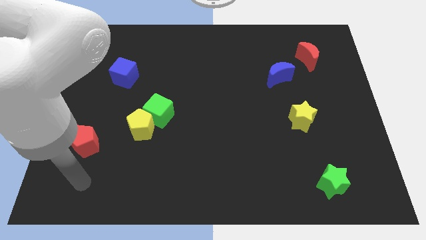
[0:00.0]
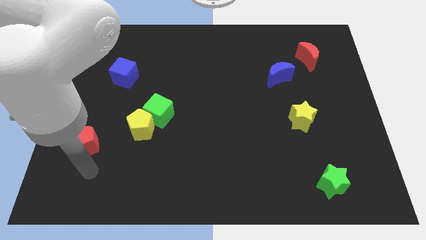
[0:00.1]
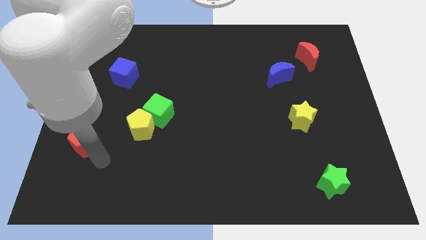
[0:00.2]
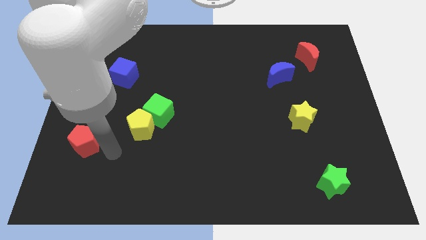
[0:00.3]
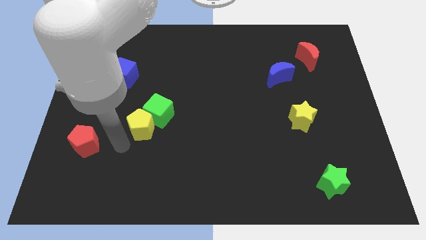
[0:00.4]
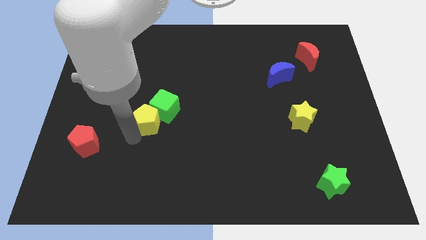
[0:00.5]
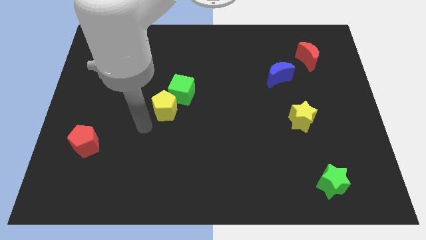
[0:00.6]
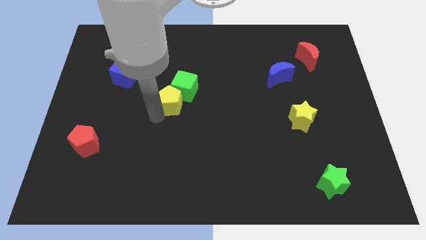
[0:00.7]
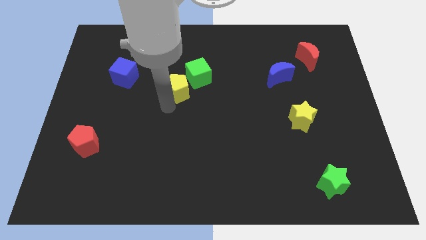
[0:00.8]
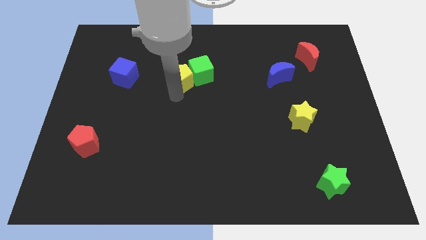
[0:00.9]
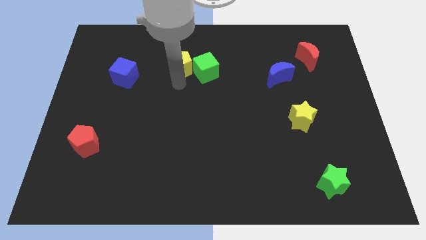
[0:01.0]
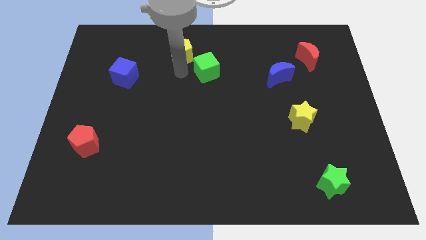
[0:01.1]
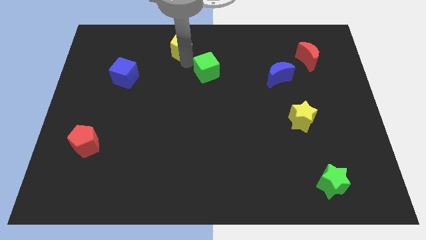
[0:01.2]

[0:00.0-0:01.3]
pull the green cube apart from the yellow pentagon

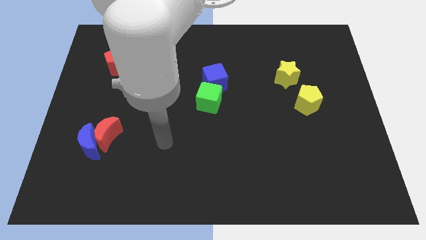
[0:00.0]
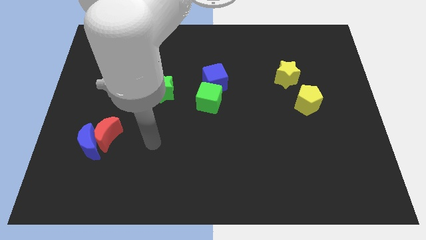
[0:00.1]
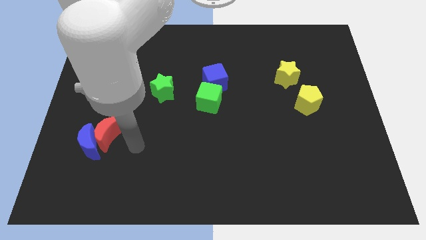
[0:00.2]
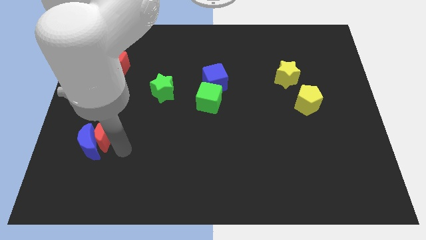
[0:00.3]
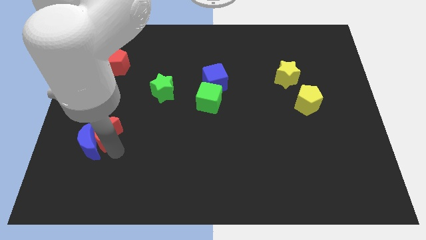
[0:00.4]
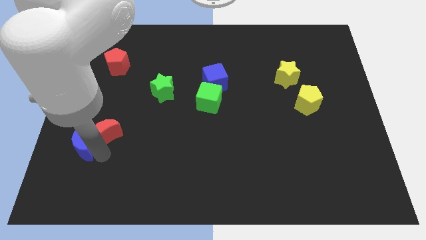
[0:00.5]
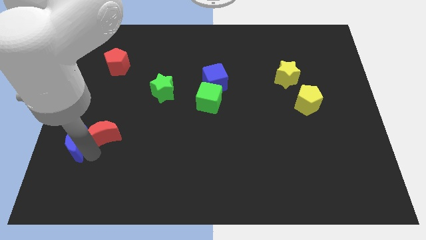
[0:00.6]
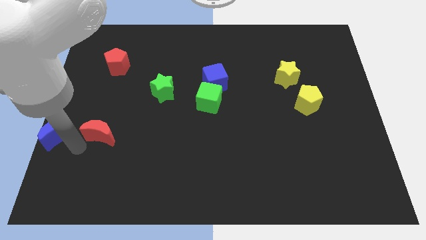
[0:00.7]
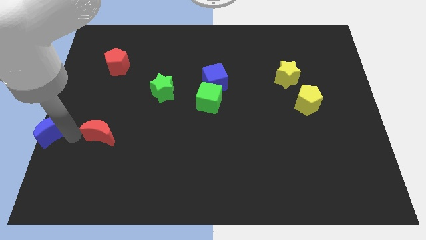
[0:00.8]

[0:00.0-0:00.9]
separate the red moon from the blue moon

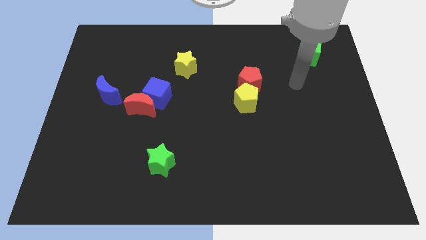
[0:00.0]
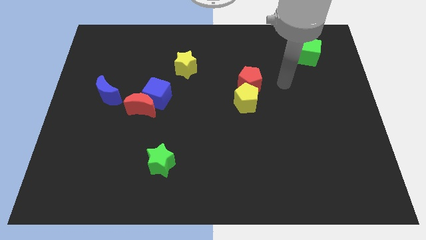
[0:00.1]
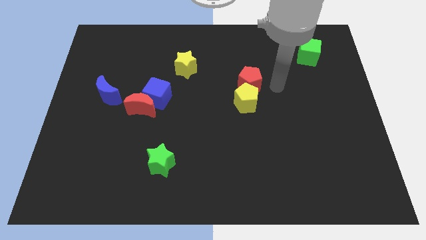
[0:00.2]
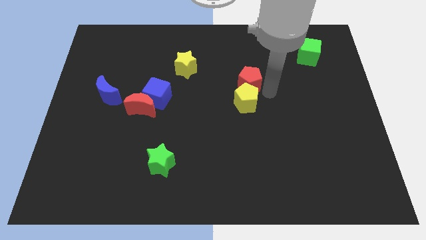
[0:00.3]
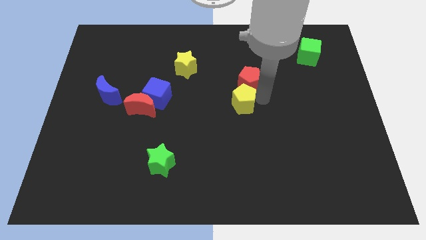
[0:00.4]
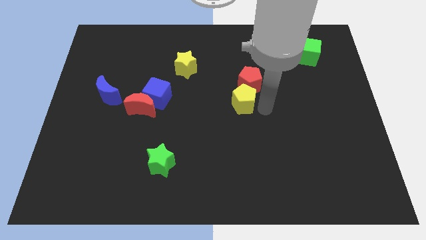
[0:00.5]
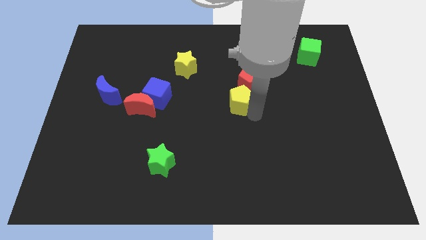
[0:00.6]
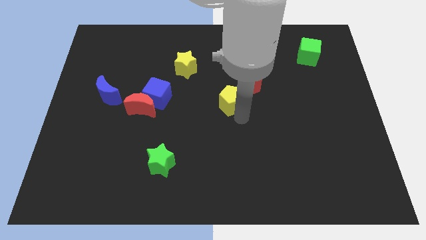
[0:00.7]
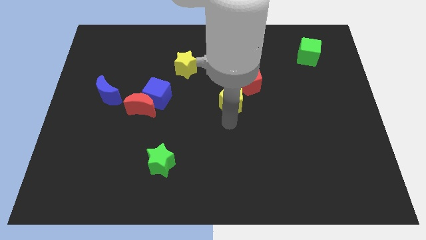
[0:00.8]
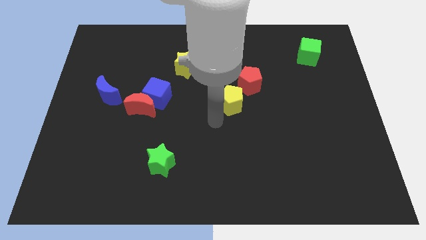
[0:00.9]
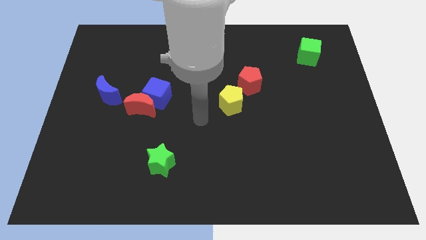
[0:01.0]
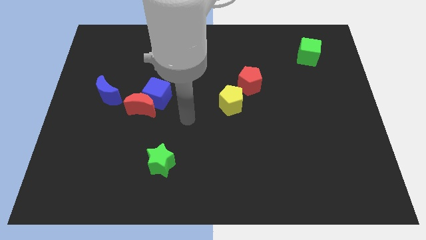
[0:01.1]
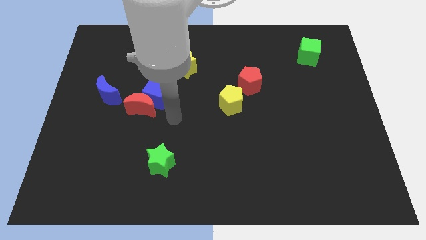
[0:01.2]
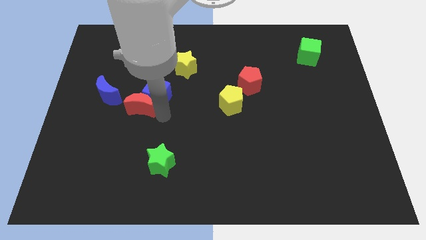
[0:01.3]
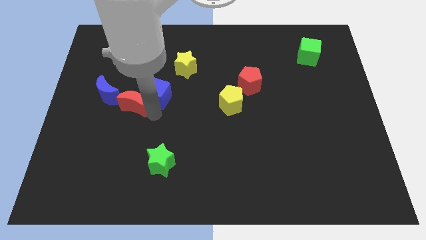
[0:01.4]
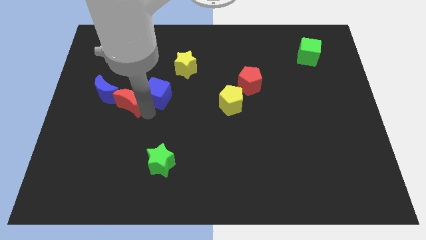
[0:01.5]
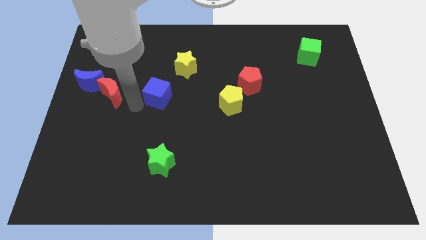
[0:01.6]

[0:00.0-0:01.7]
move the blue cube away from the red moon

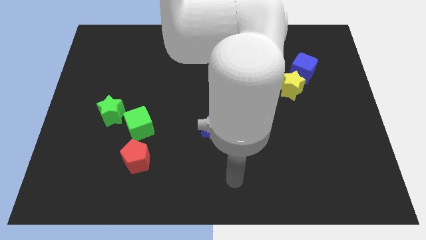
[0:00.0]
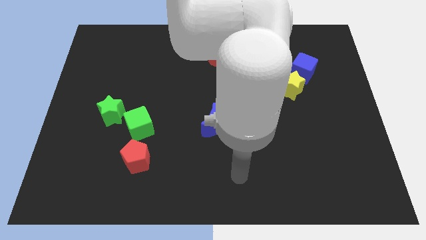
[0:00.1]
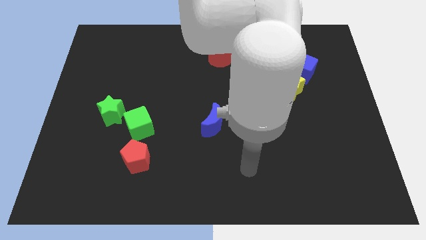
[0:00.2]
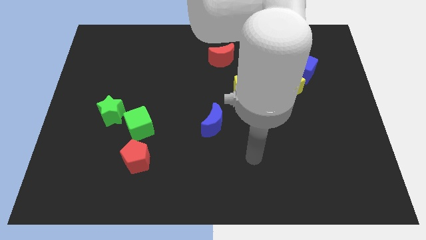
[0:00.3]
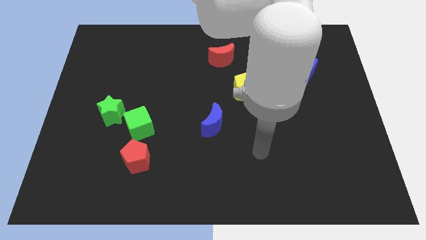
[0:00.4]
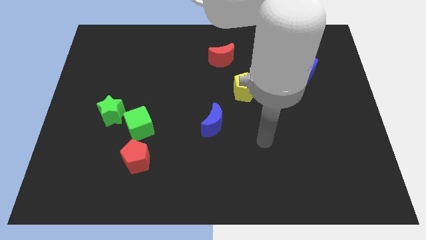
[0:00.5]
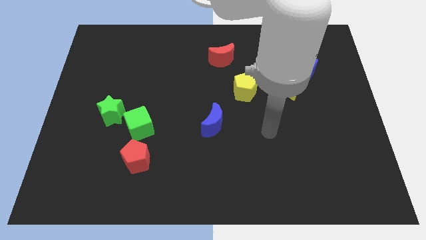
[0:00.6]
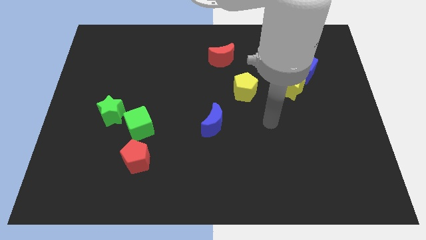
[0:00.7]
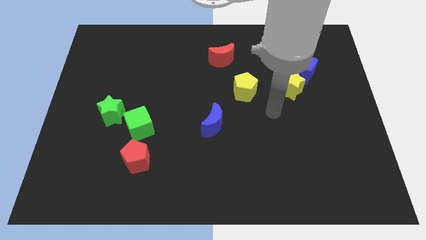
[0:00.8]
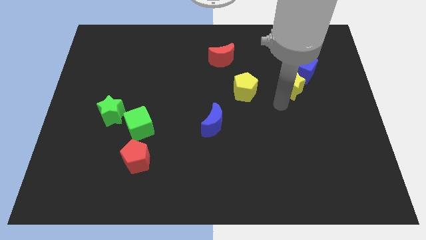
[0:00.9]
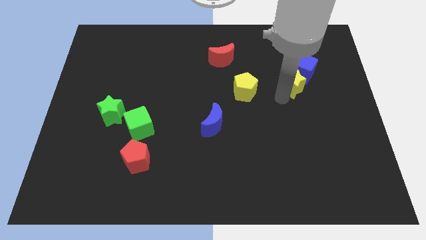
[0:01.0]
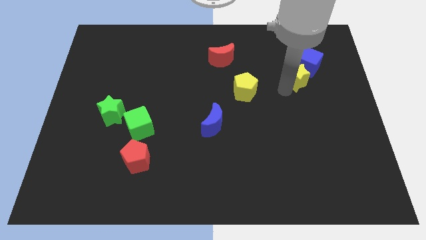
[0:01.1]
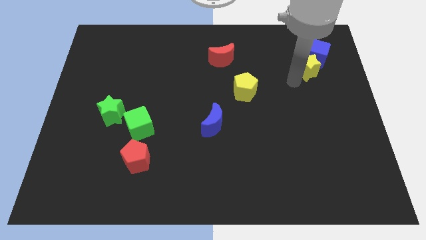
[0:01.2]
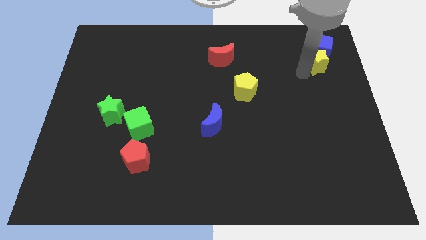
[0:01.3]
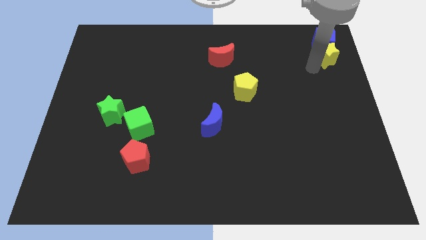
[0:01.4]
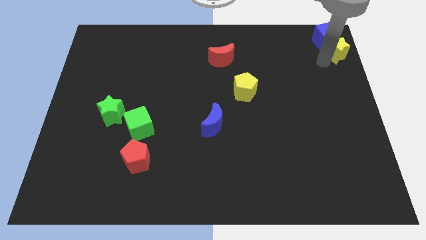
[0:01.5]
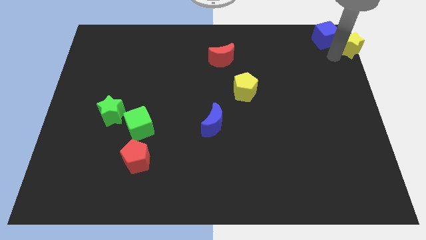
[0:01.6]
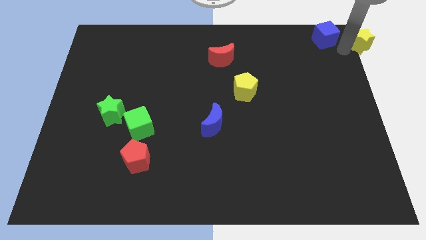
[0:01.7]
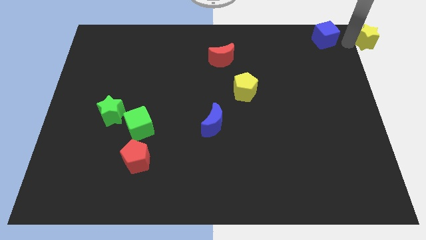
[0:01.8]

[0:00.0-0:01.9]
separate the blue cube from the yellow star

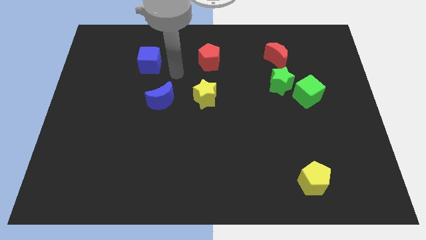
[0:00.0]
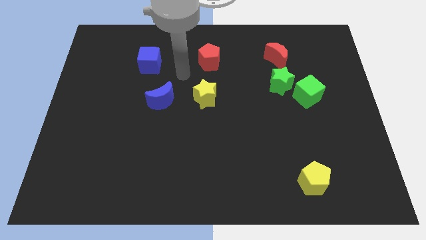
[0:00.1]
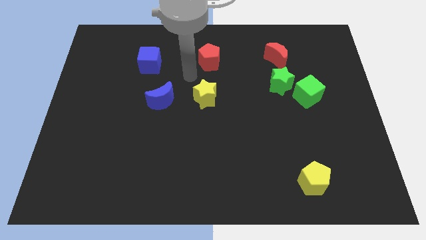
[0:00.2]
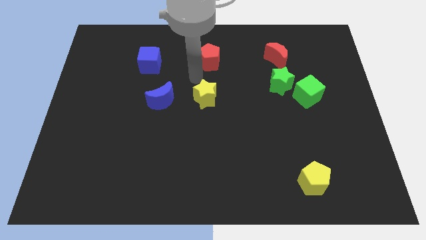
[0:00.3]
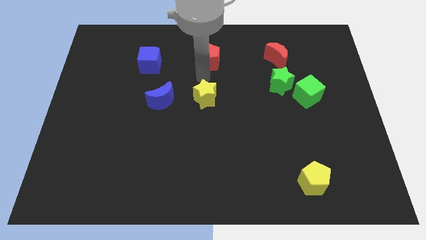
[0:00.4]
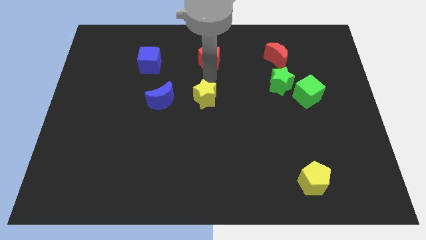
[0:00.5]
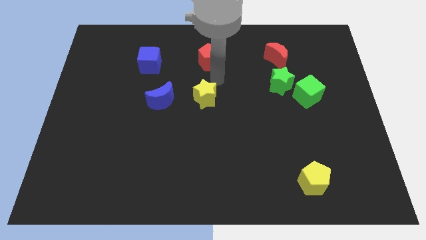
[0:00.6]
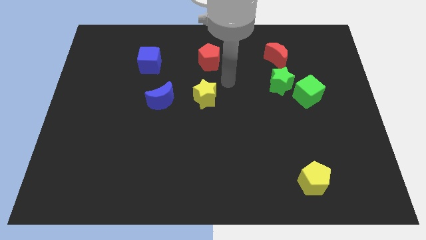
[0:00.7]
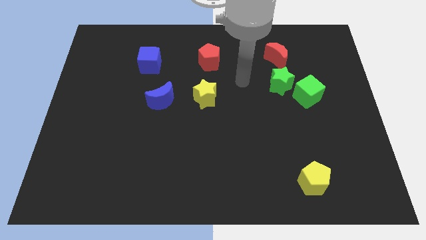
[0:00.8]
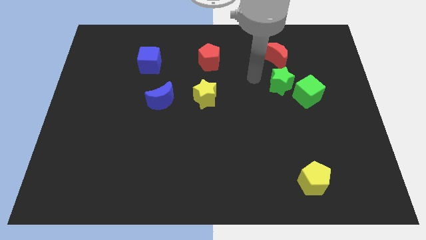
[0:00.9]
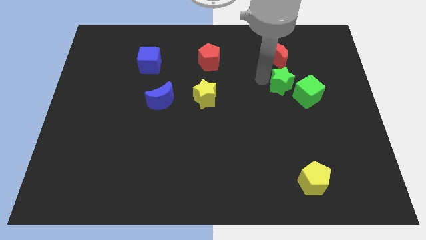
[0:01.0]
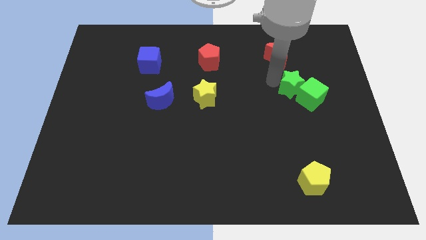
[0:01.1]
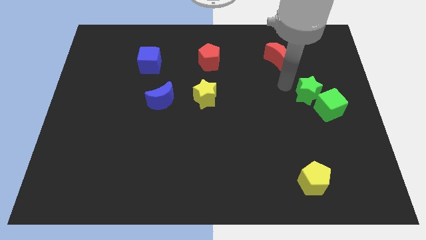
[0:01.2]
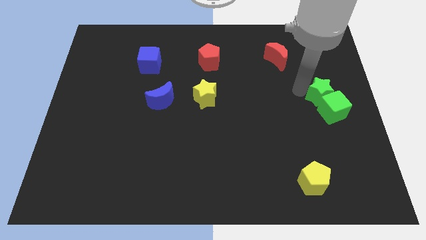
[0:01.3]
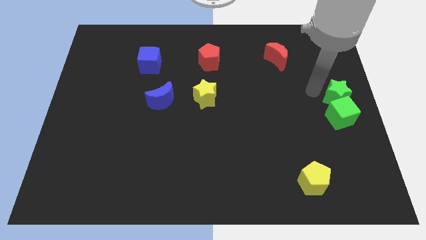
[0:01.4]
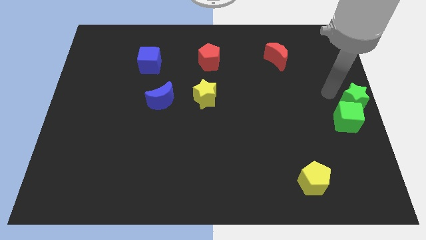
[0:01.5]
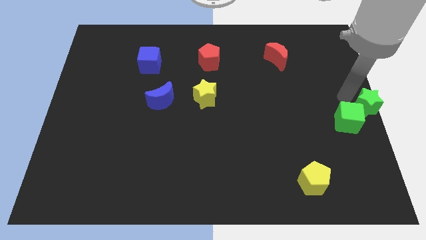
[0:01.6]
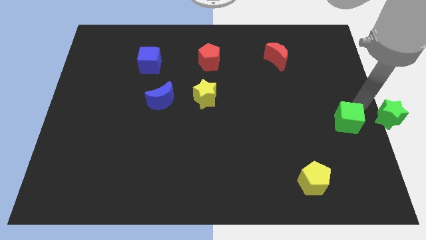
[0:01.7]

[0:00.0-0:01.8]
separate the green cube from the green star

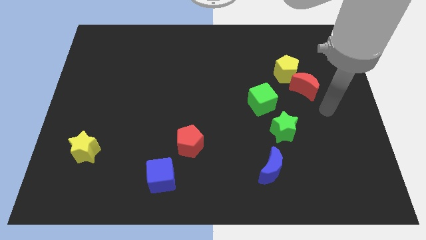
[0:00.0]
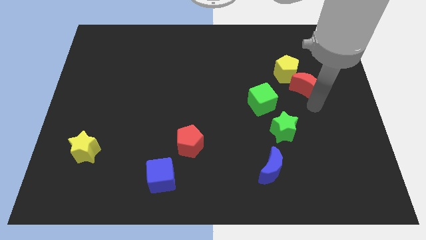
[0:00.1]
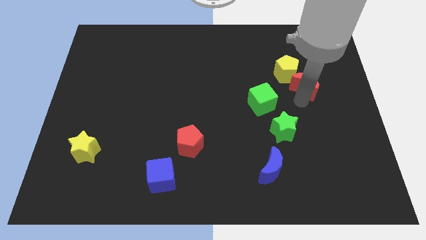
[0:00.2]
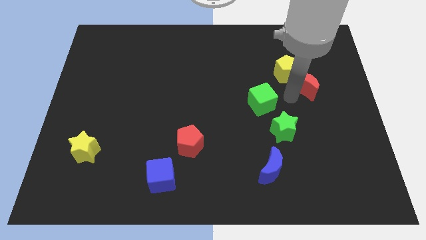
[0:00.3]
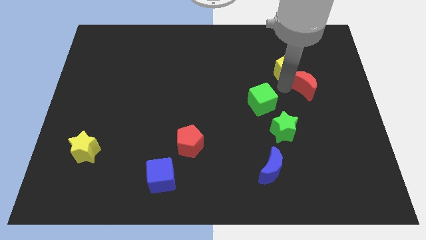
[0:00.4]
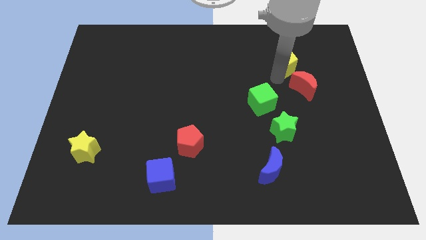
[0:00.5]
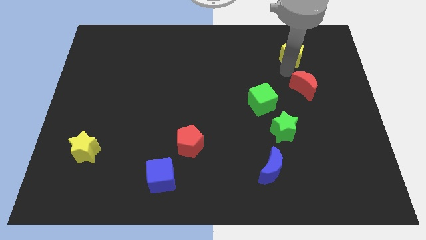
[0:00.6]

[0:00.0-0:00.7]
pull the red moon apart from the yellow pentagon

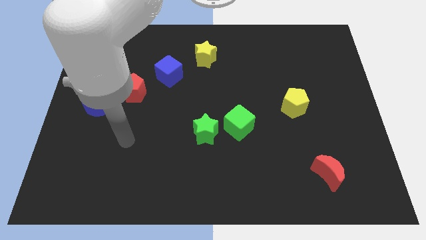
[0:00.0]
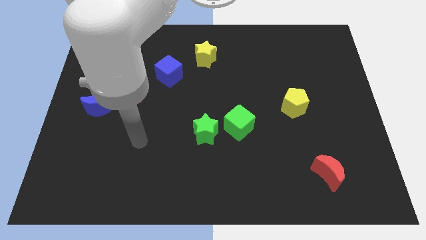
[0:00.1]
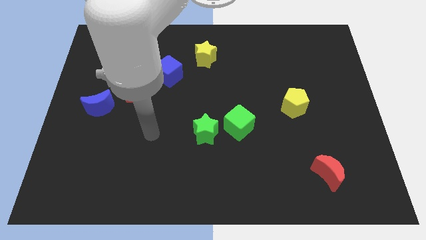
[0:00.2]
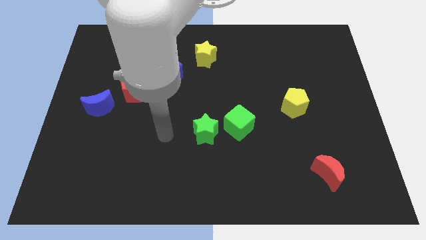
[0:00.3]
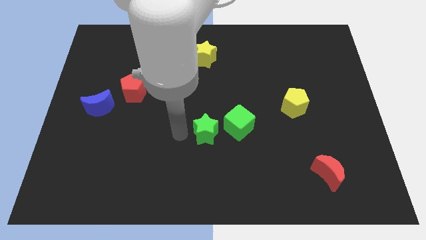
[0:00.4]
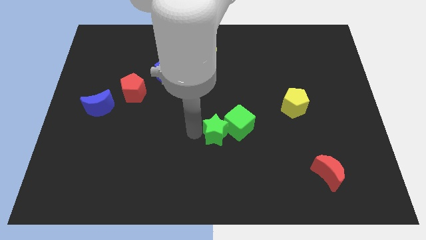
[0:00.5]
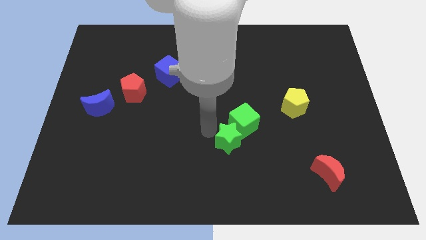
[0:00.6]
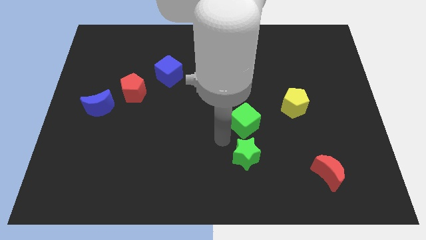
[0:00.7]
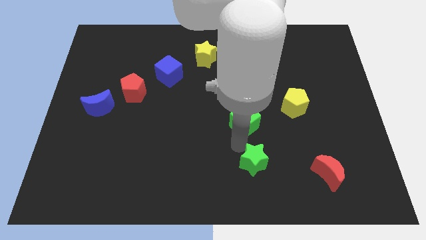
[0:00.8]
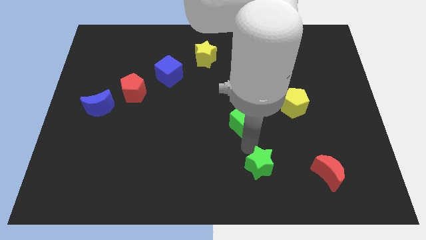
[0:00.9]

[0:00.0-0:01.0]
move the green cube away from the green star
